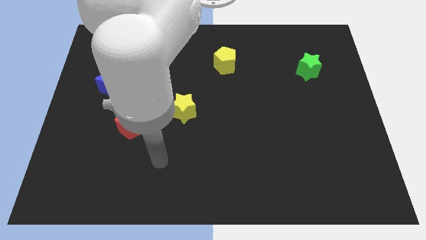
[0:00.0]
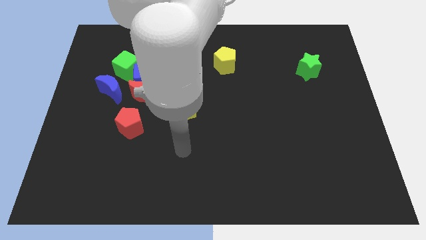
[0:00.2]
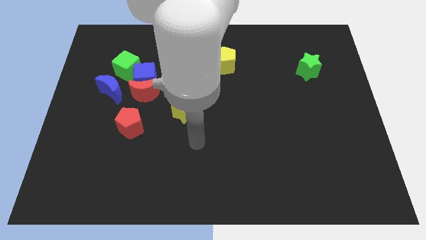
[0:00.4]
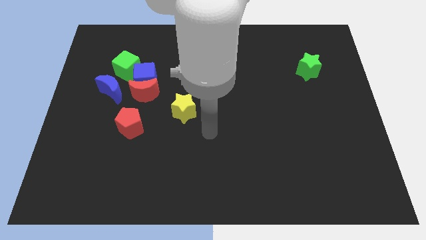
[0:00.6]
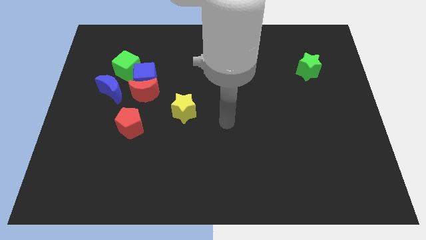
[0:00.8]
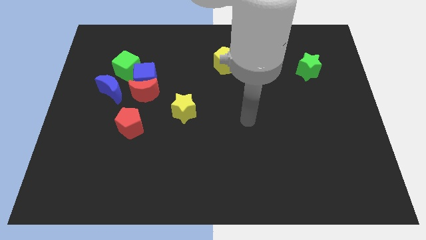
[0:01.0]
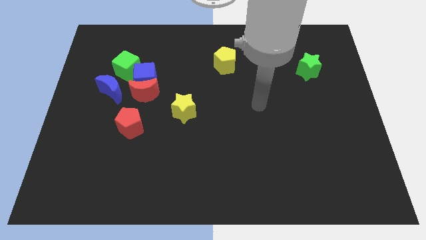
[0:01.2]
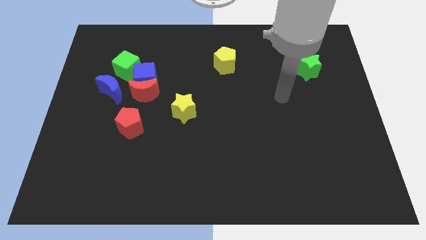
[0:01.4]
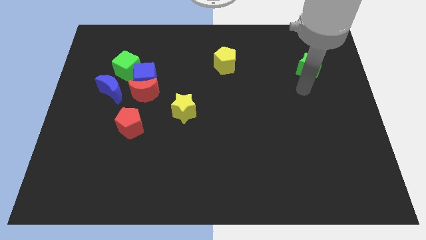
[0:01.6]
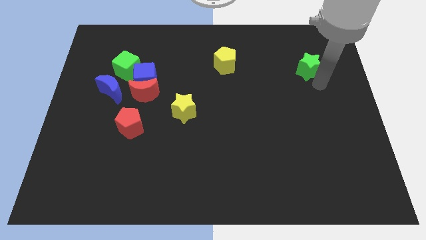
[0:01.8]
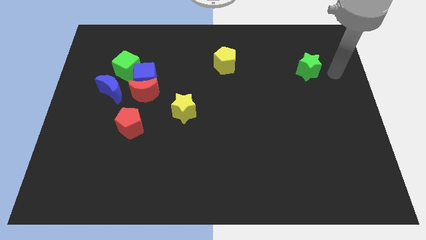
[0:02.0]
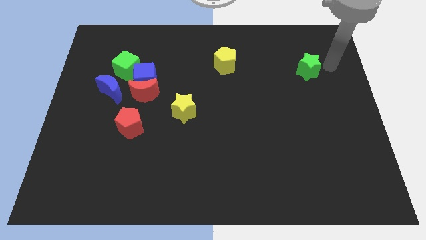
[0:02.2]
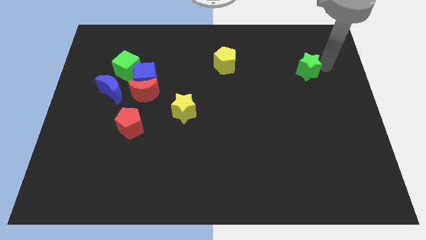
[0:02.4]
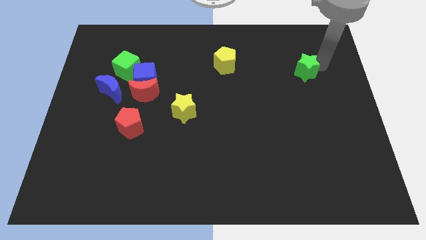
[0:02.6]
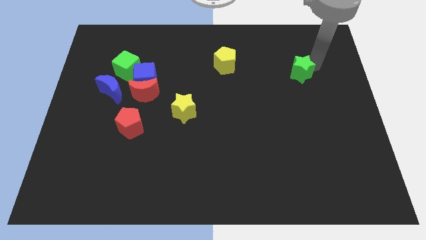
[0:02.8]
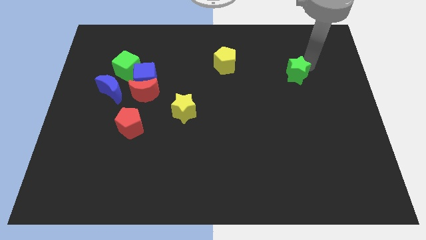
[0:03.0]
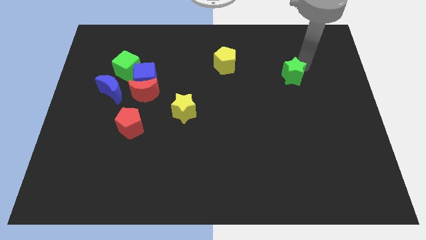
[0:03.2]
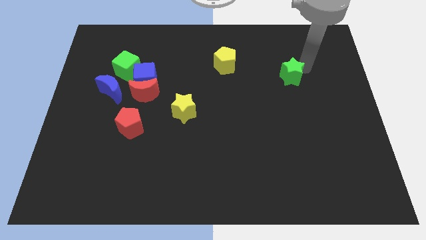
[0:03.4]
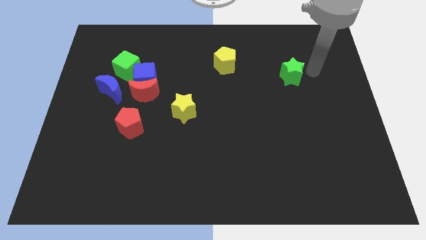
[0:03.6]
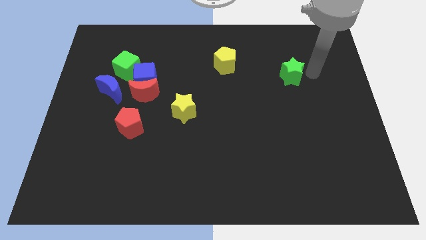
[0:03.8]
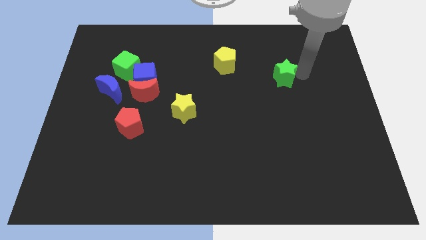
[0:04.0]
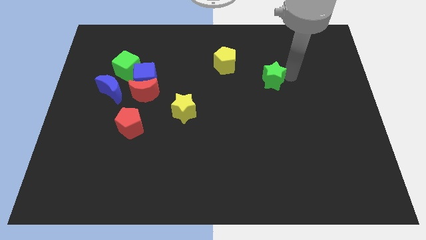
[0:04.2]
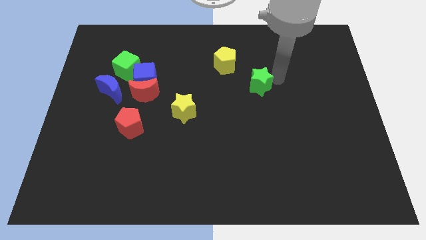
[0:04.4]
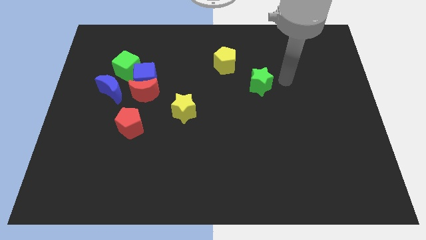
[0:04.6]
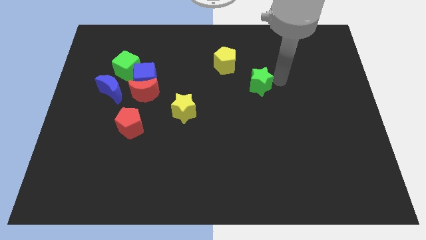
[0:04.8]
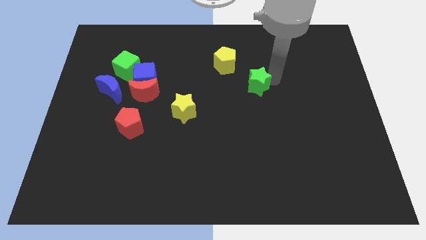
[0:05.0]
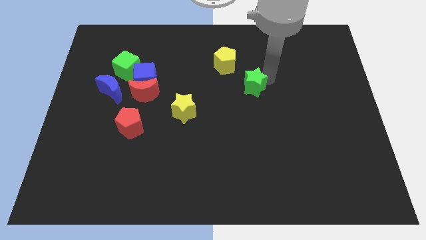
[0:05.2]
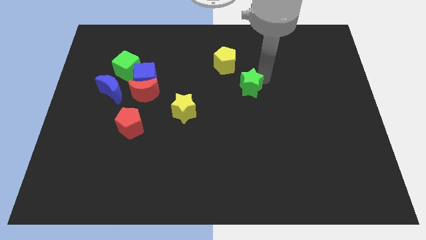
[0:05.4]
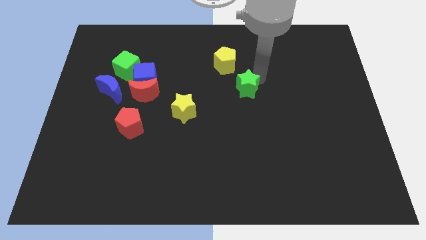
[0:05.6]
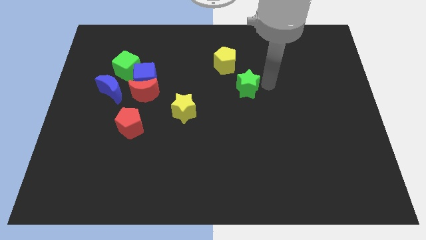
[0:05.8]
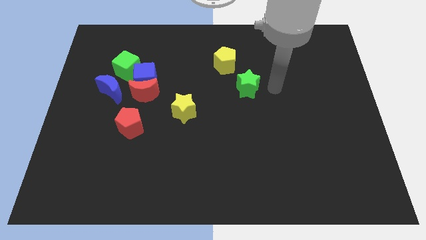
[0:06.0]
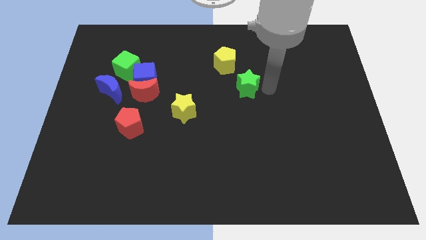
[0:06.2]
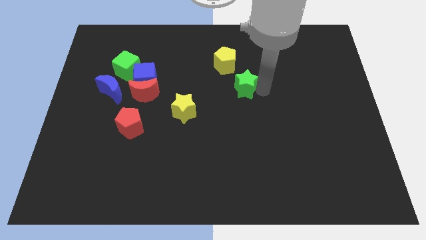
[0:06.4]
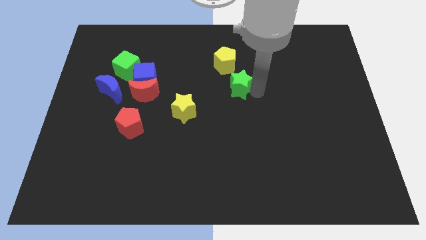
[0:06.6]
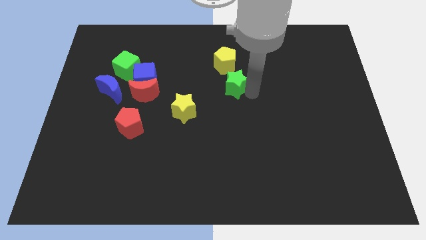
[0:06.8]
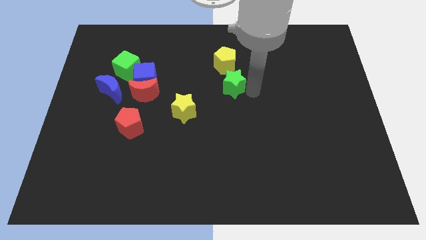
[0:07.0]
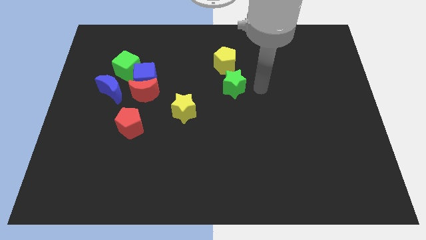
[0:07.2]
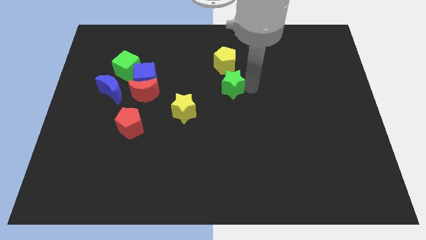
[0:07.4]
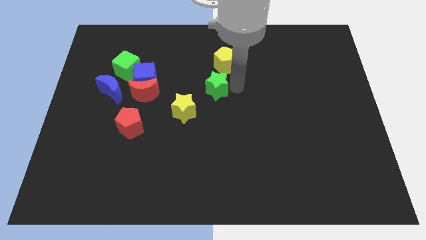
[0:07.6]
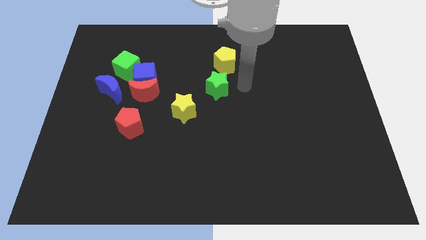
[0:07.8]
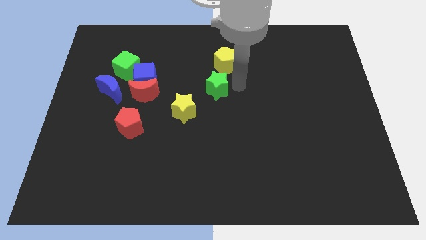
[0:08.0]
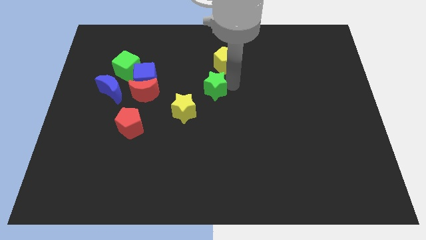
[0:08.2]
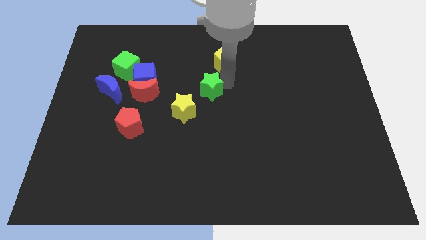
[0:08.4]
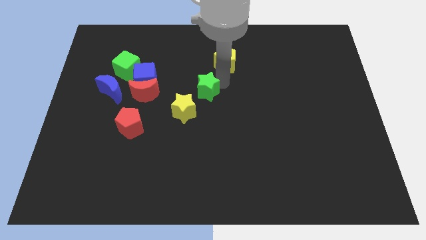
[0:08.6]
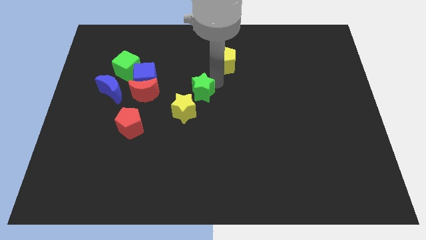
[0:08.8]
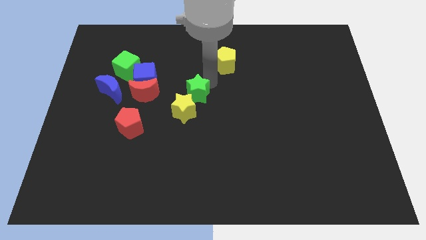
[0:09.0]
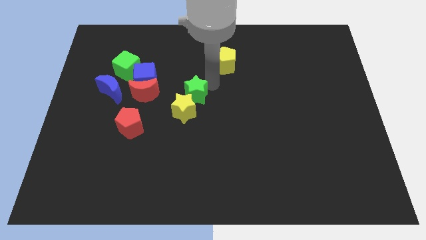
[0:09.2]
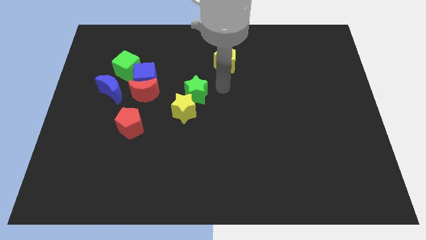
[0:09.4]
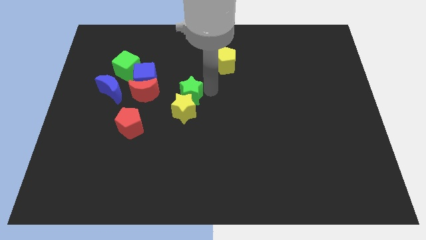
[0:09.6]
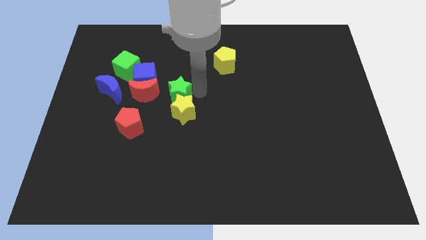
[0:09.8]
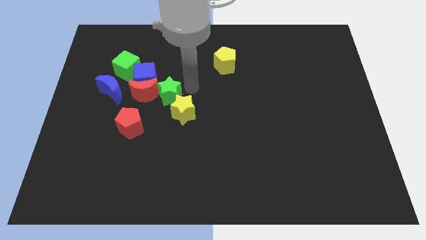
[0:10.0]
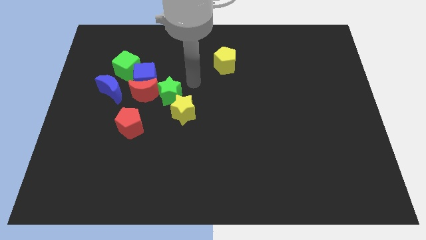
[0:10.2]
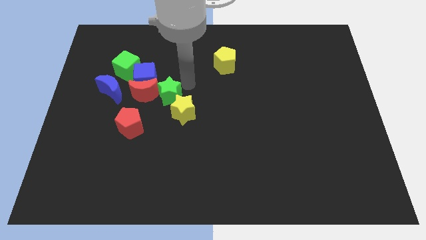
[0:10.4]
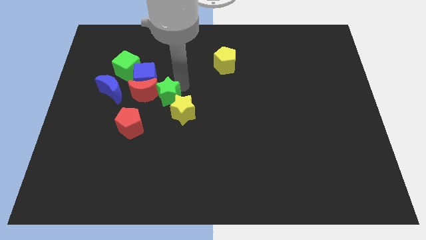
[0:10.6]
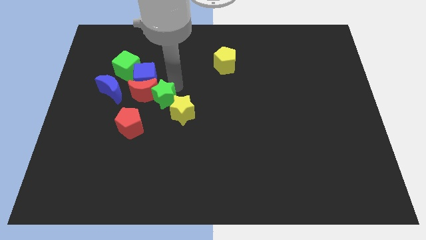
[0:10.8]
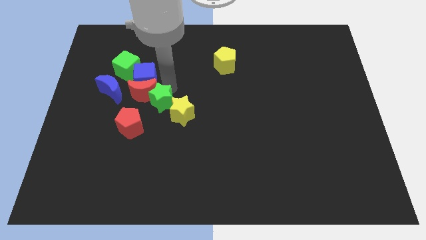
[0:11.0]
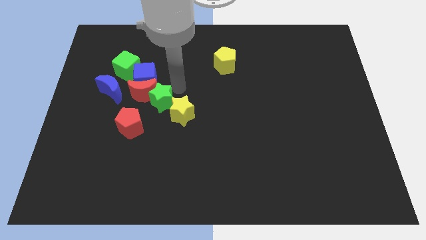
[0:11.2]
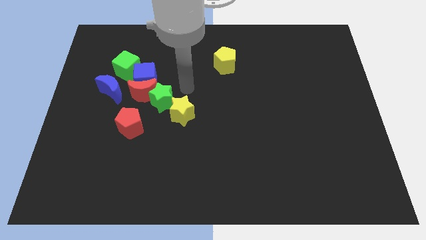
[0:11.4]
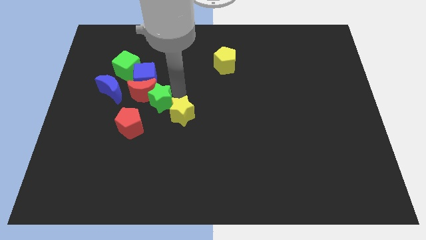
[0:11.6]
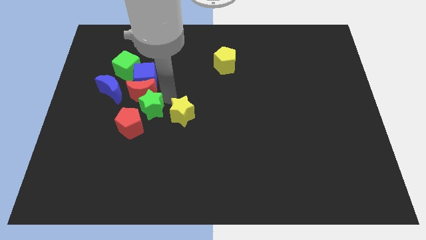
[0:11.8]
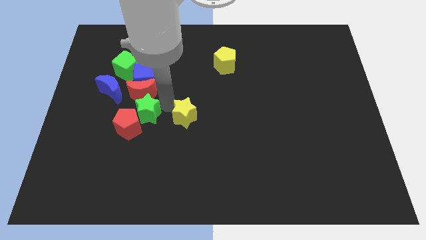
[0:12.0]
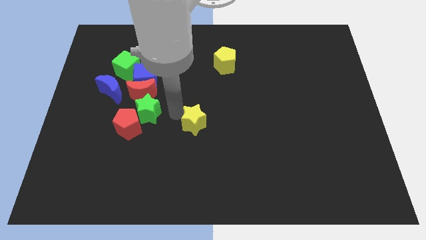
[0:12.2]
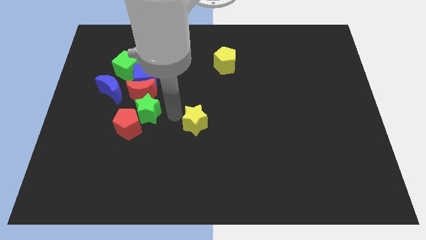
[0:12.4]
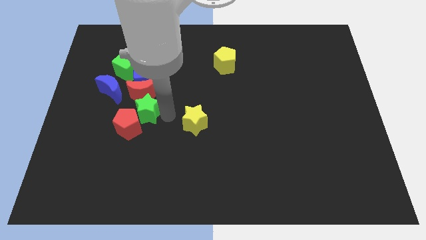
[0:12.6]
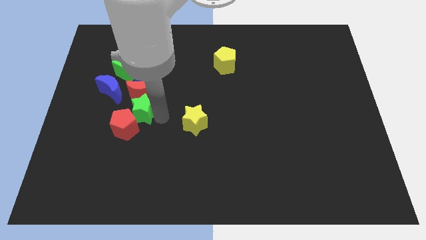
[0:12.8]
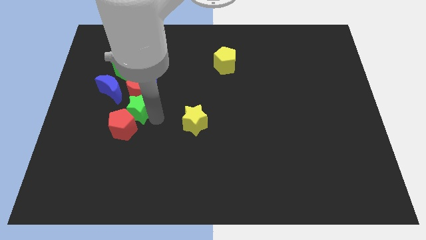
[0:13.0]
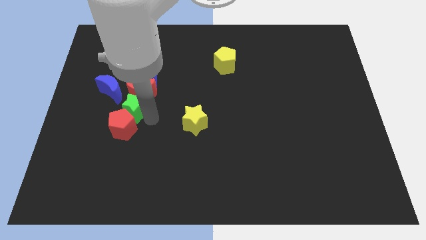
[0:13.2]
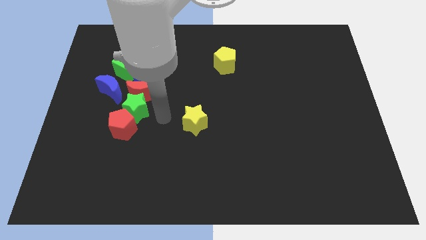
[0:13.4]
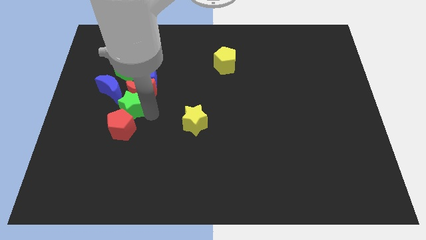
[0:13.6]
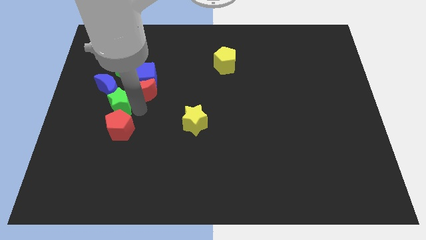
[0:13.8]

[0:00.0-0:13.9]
put the green star close to the blue moon

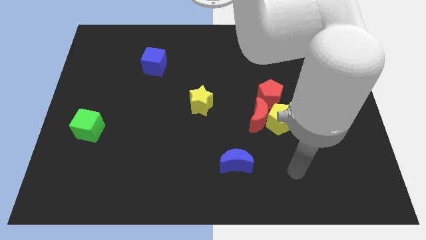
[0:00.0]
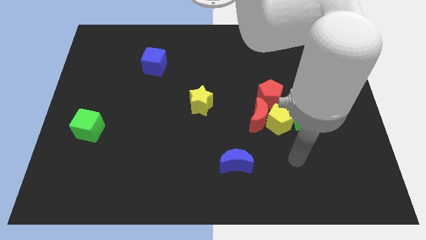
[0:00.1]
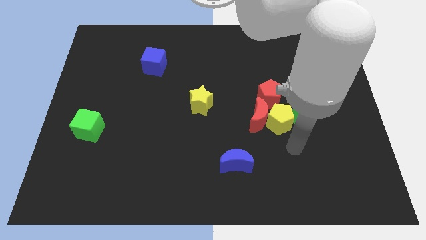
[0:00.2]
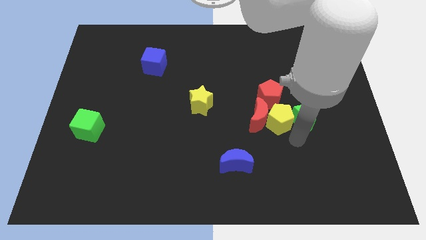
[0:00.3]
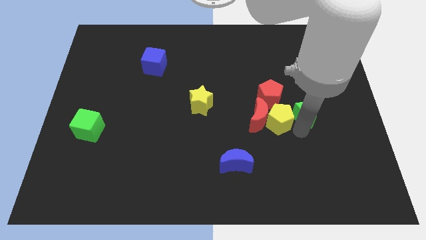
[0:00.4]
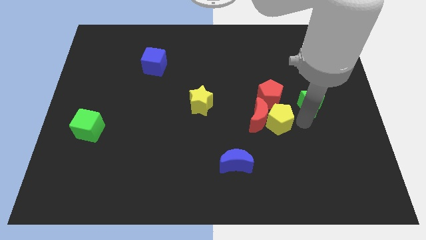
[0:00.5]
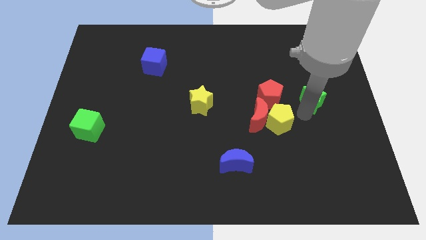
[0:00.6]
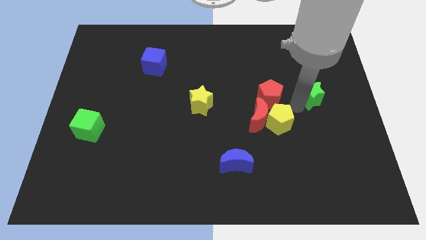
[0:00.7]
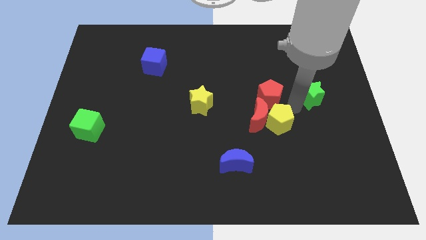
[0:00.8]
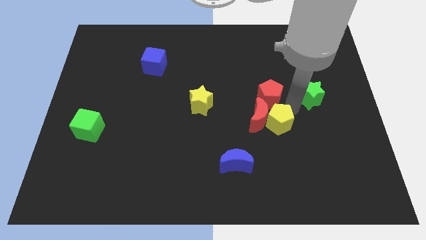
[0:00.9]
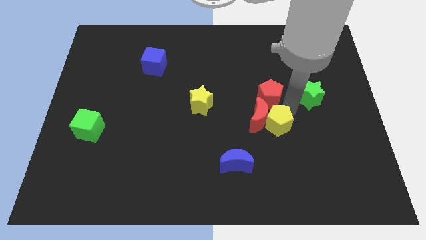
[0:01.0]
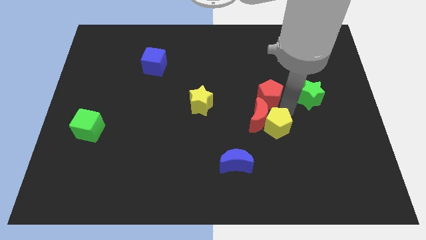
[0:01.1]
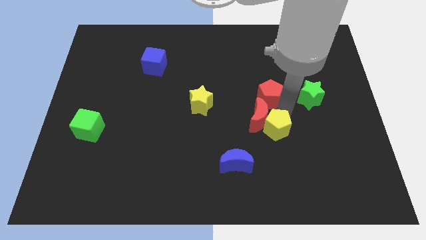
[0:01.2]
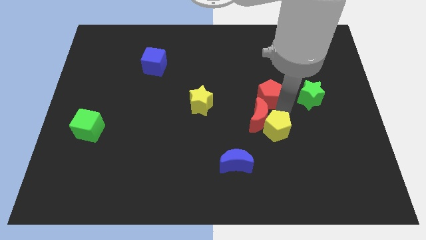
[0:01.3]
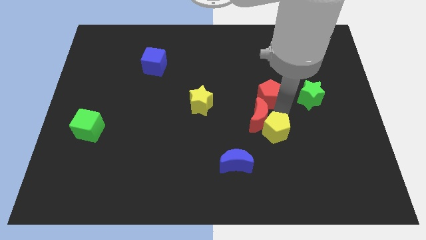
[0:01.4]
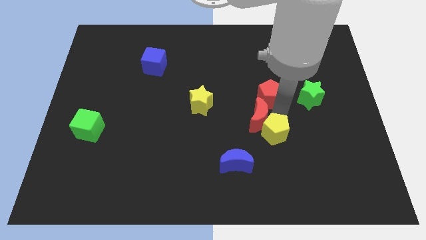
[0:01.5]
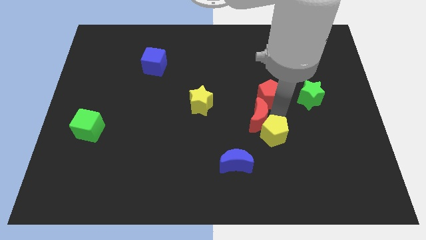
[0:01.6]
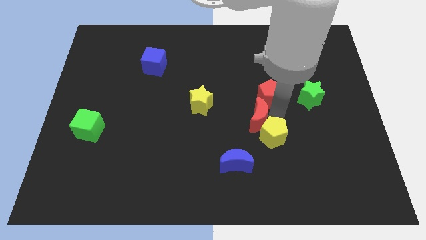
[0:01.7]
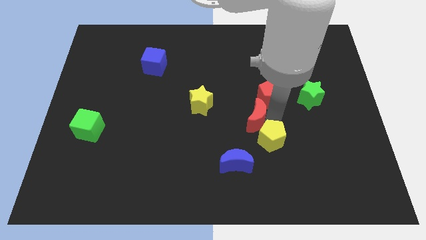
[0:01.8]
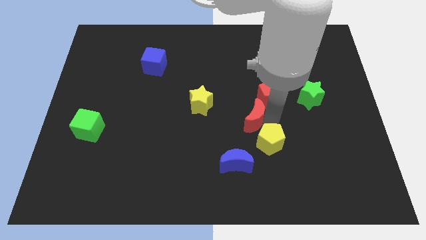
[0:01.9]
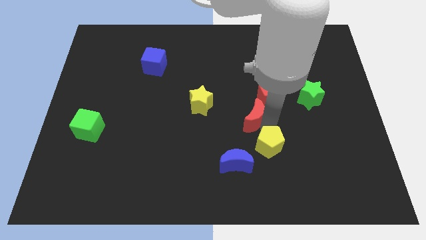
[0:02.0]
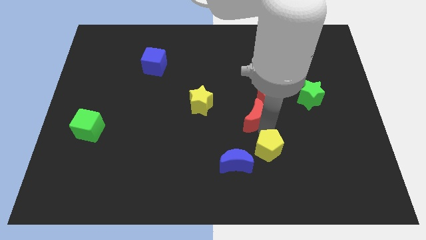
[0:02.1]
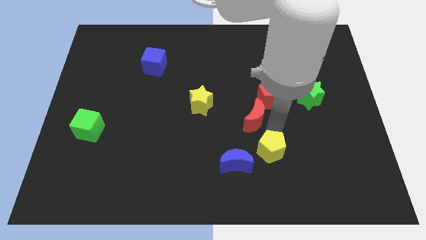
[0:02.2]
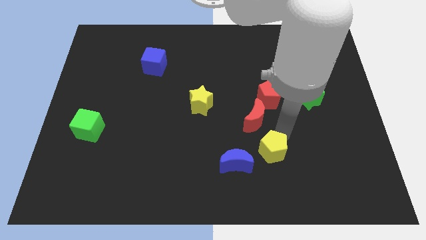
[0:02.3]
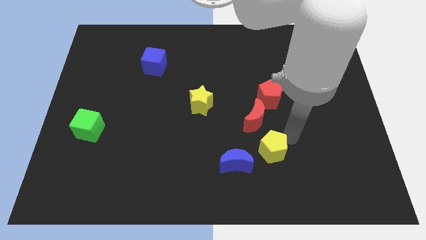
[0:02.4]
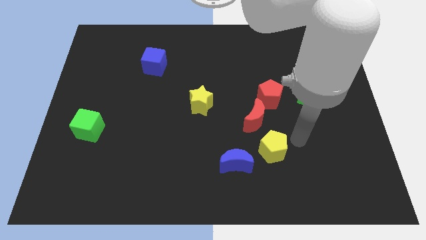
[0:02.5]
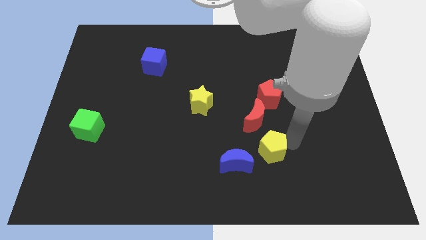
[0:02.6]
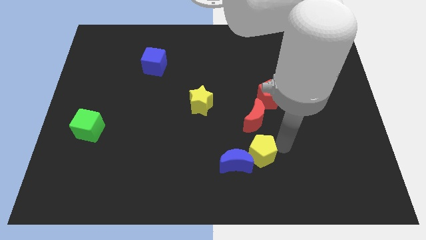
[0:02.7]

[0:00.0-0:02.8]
slide the yellow pentagon close to the blue moon
